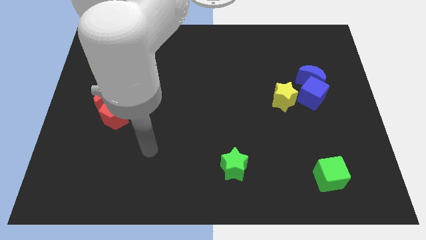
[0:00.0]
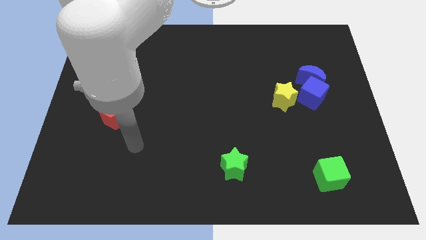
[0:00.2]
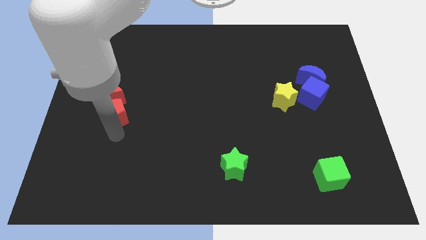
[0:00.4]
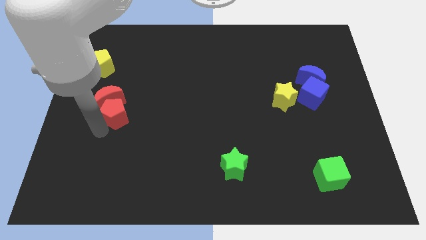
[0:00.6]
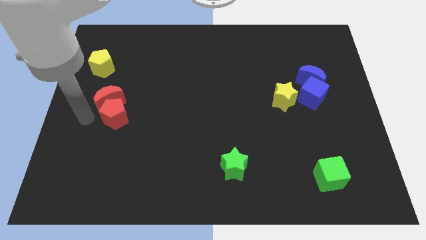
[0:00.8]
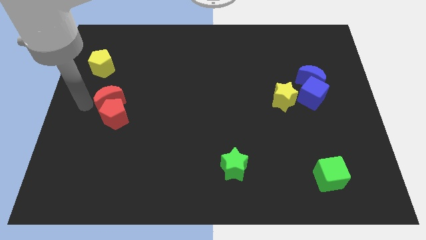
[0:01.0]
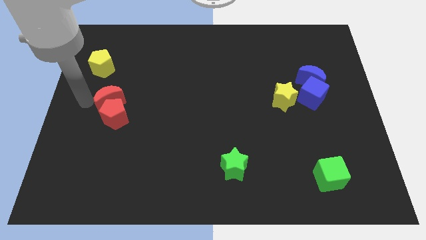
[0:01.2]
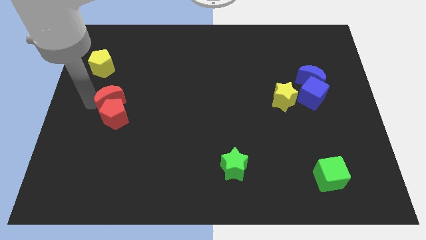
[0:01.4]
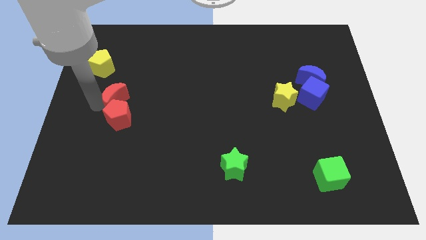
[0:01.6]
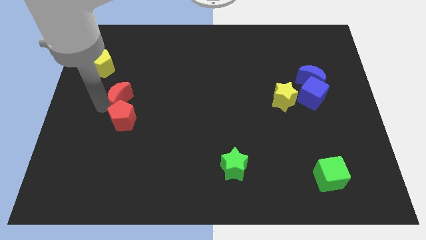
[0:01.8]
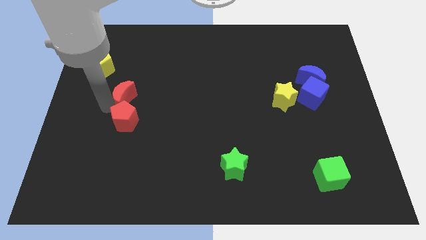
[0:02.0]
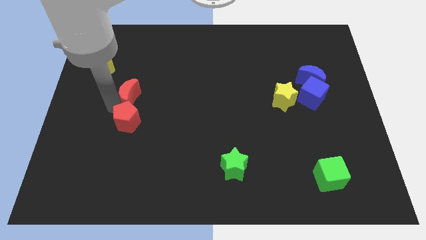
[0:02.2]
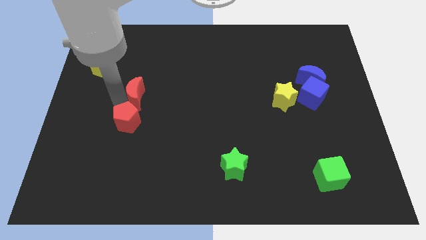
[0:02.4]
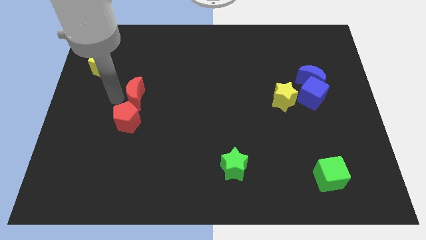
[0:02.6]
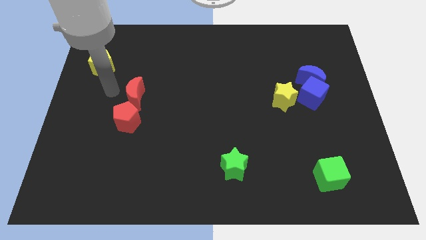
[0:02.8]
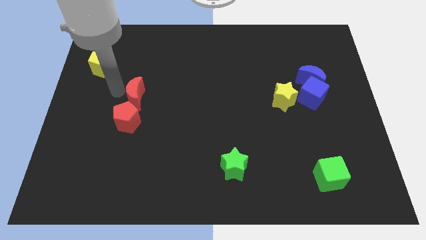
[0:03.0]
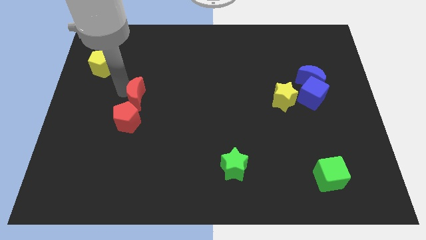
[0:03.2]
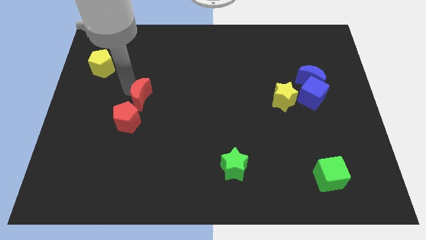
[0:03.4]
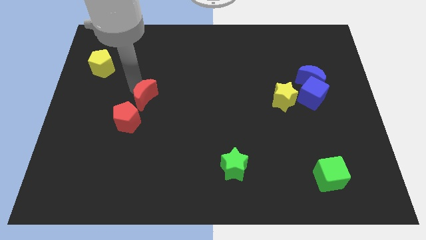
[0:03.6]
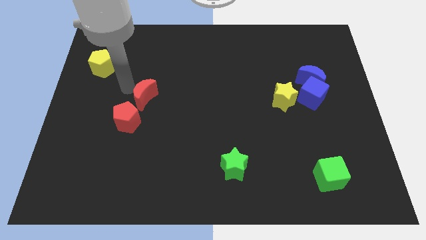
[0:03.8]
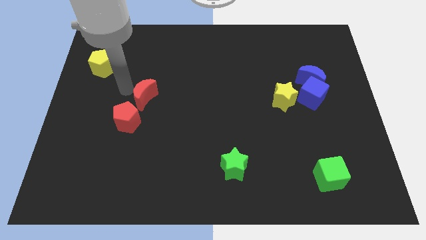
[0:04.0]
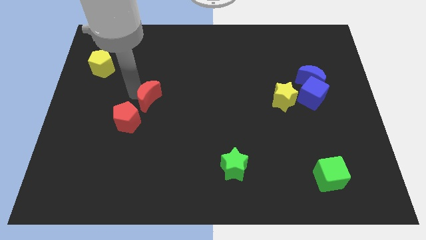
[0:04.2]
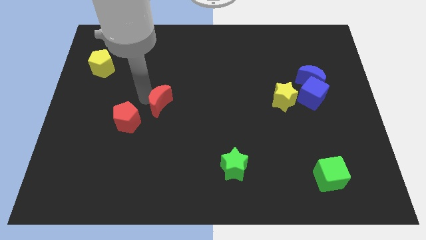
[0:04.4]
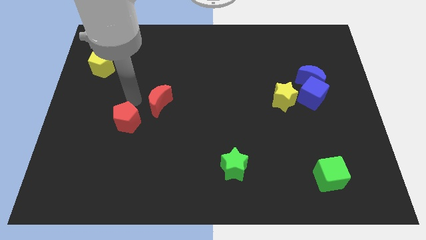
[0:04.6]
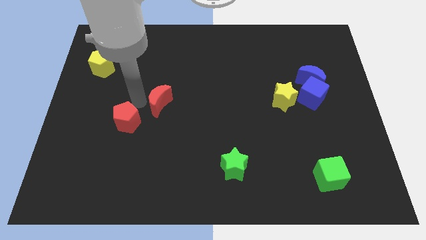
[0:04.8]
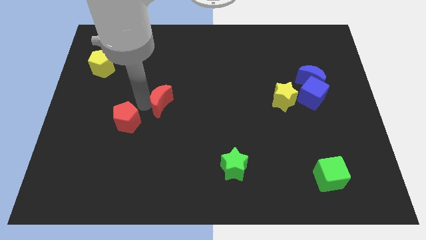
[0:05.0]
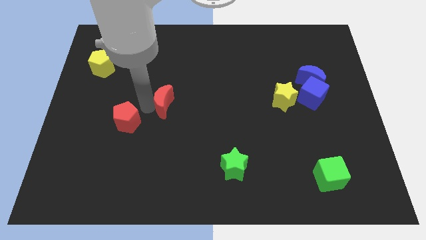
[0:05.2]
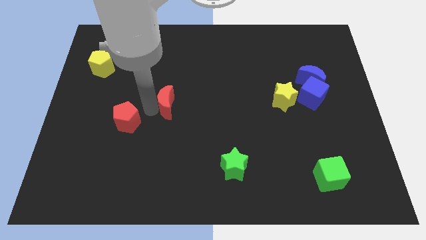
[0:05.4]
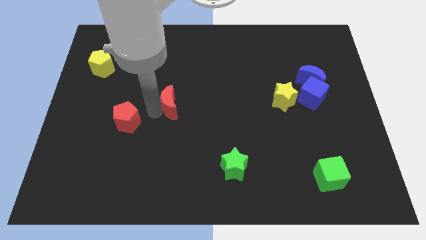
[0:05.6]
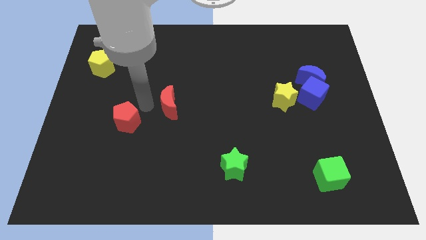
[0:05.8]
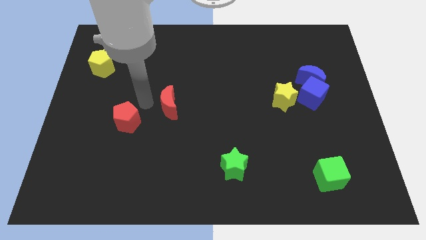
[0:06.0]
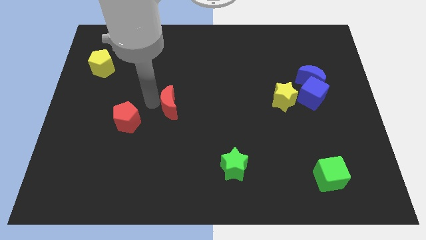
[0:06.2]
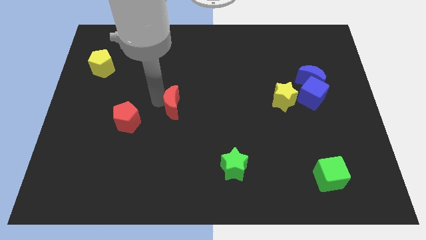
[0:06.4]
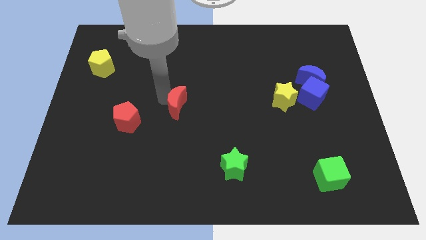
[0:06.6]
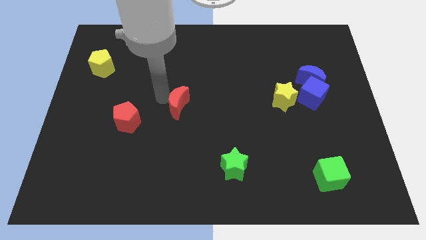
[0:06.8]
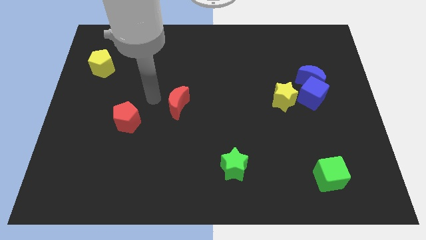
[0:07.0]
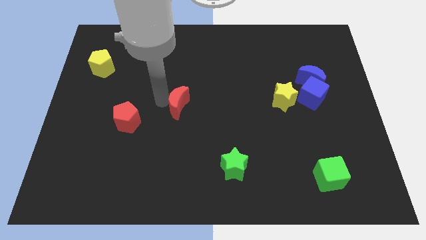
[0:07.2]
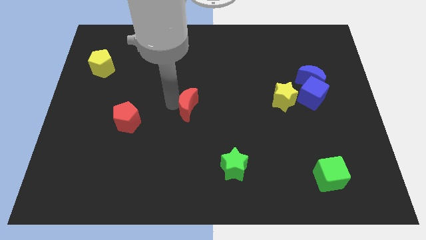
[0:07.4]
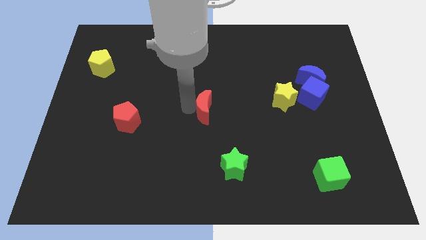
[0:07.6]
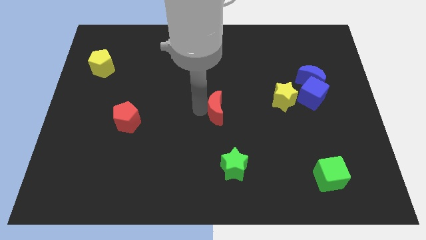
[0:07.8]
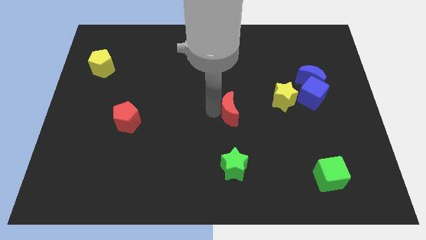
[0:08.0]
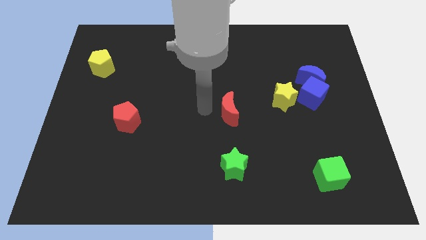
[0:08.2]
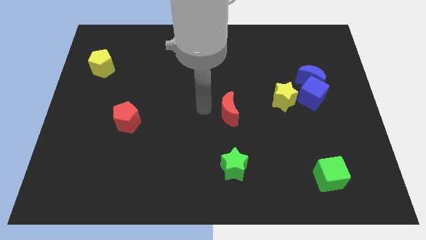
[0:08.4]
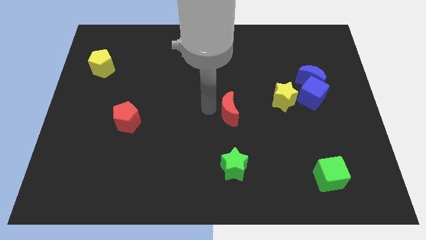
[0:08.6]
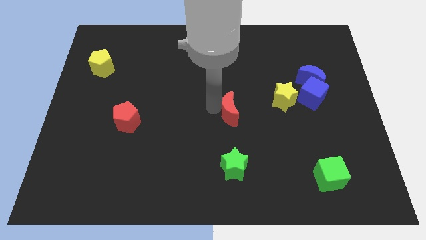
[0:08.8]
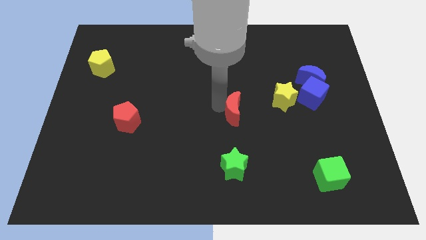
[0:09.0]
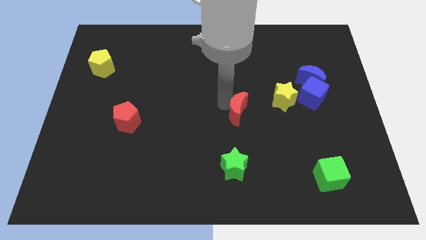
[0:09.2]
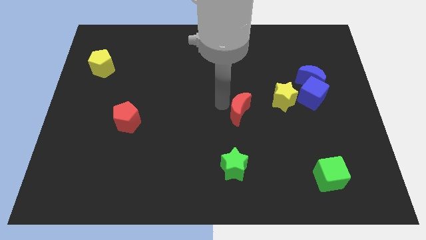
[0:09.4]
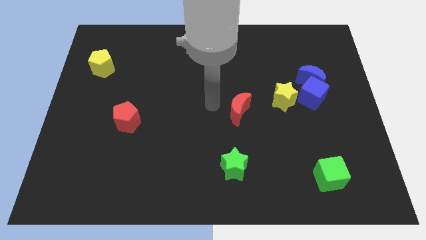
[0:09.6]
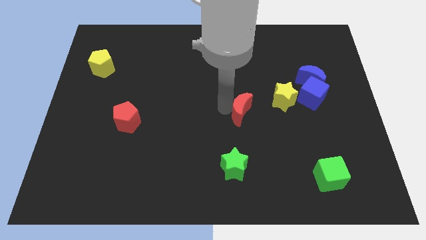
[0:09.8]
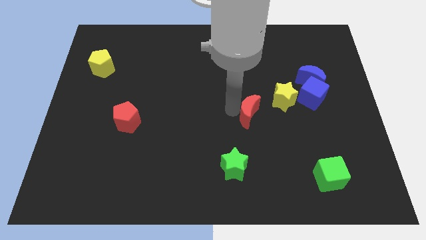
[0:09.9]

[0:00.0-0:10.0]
move the red moon diagonally down and to the left of the yellow star

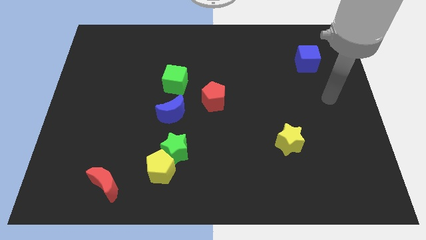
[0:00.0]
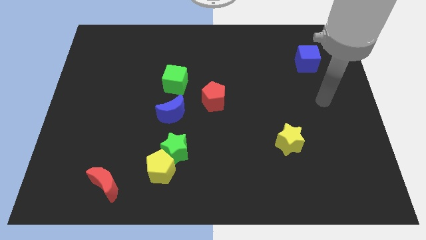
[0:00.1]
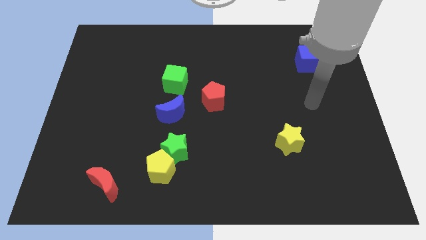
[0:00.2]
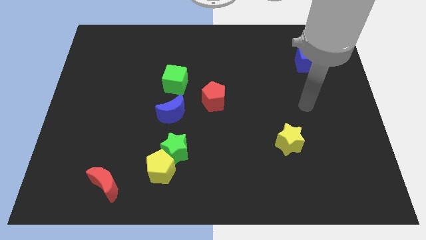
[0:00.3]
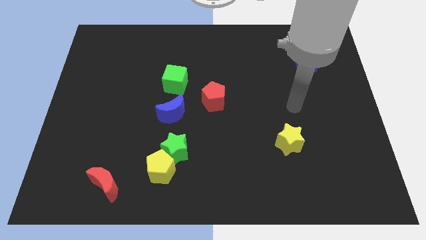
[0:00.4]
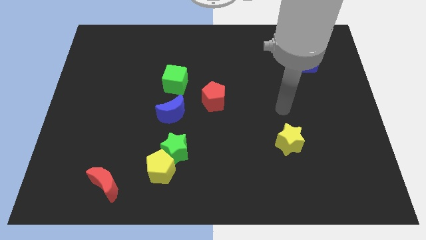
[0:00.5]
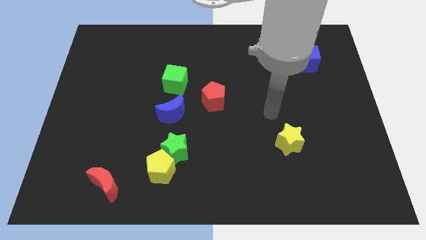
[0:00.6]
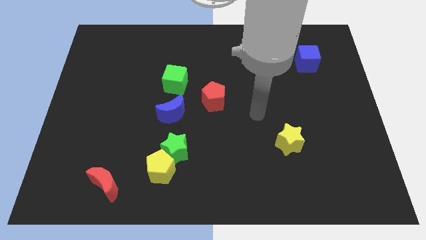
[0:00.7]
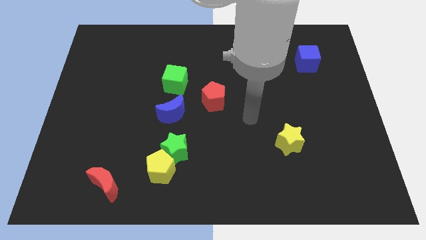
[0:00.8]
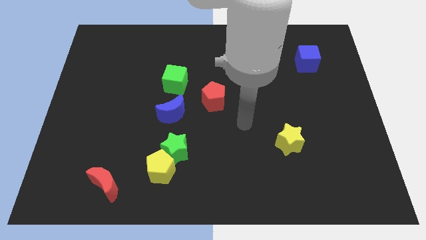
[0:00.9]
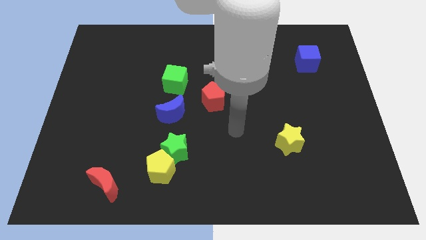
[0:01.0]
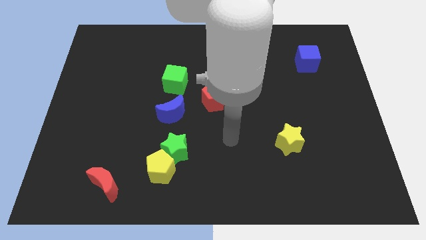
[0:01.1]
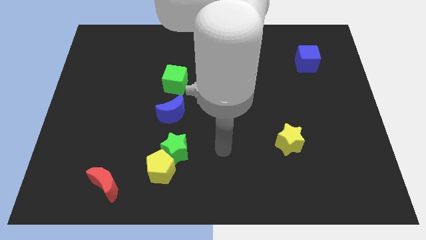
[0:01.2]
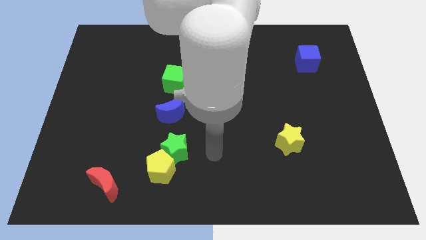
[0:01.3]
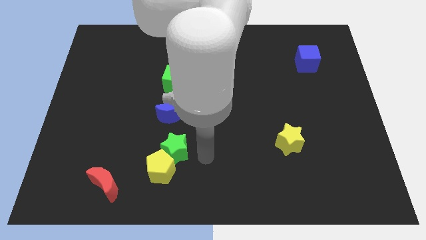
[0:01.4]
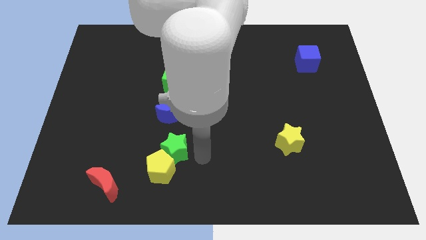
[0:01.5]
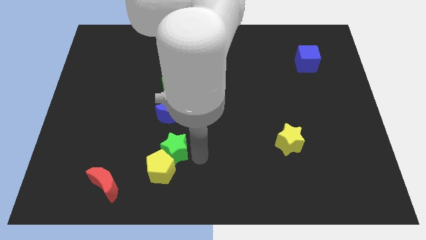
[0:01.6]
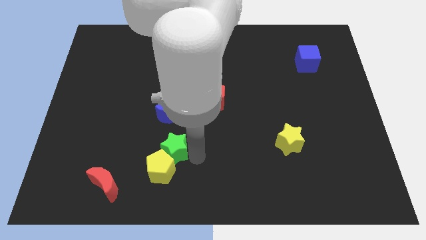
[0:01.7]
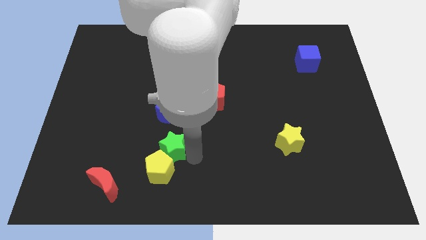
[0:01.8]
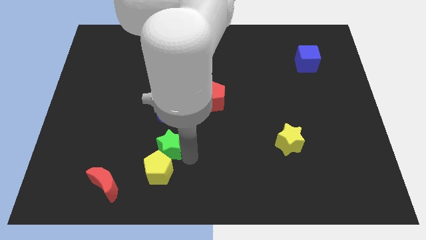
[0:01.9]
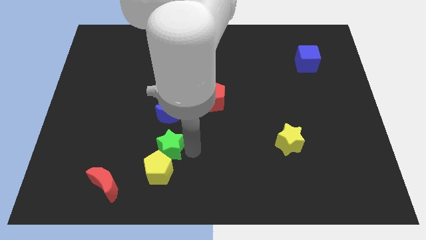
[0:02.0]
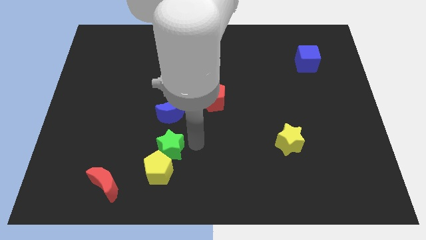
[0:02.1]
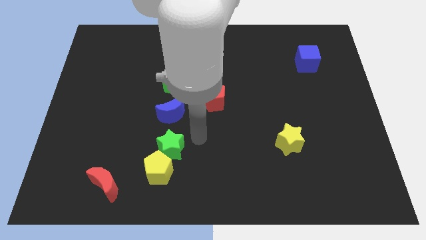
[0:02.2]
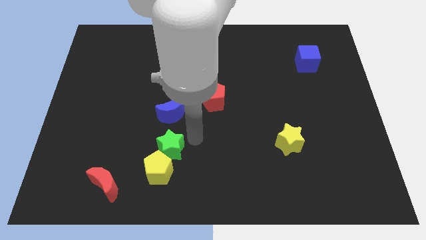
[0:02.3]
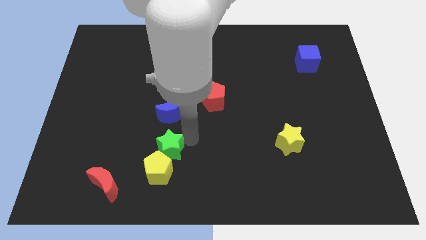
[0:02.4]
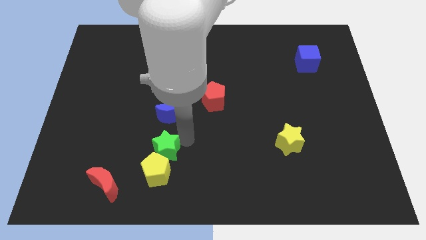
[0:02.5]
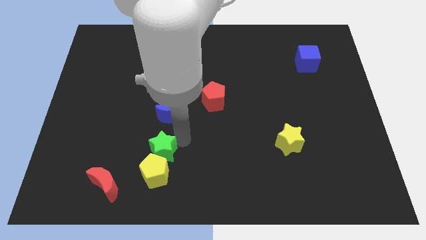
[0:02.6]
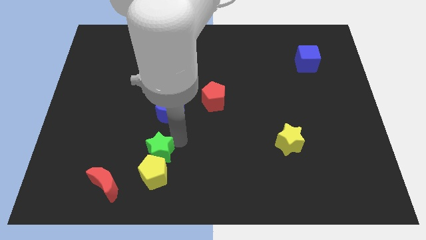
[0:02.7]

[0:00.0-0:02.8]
slide the green star to the top right of the red moon
